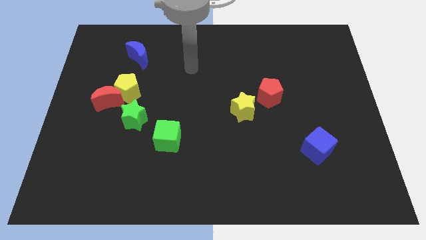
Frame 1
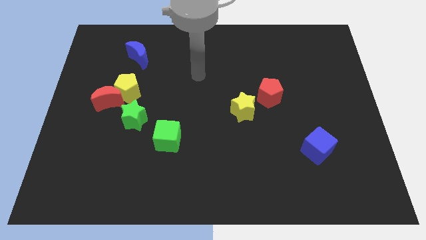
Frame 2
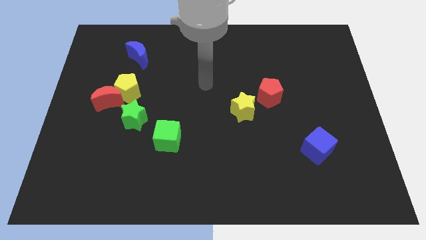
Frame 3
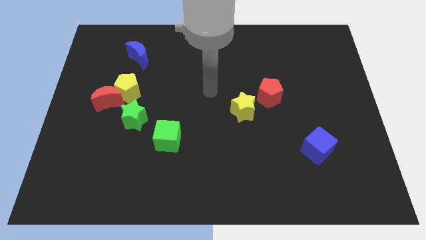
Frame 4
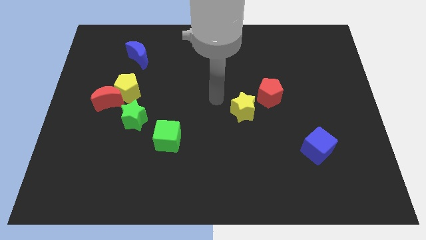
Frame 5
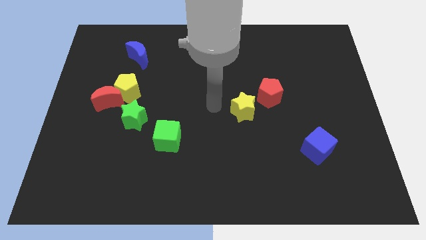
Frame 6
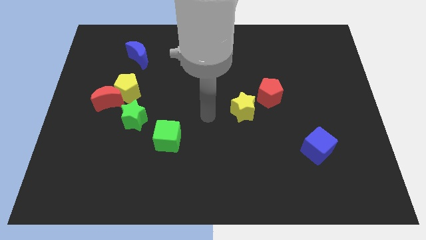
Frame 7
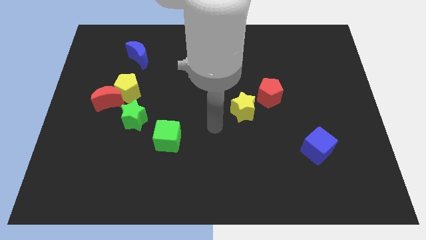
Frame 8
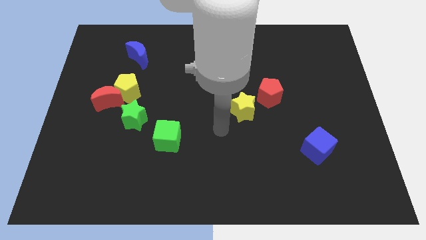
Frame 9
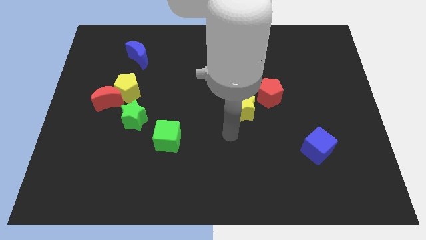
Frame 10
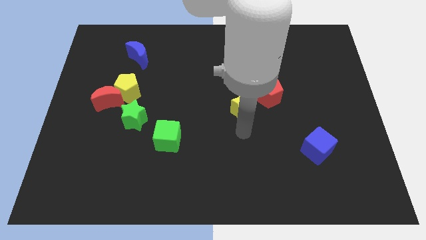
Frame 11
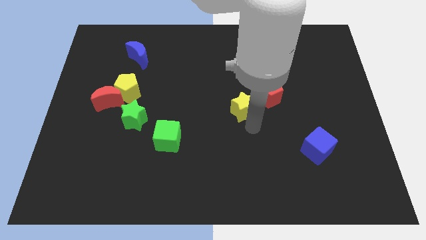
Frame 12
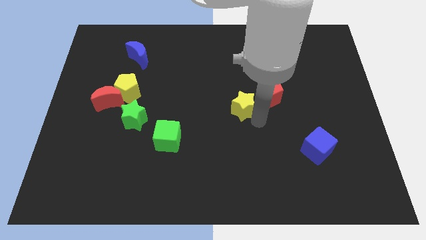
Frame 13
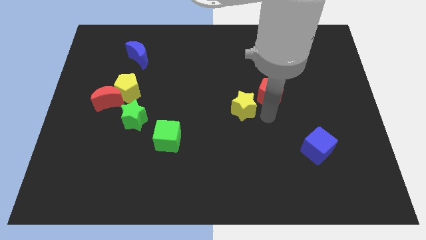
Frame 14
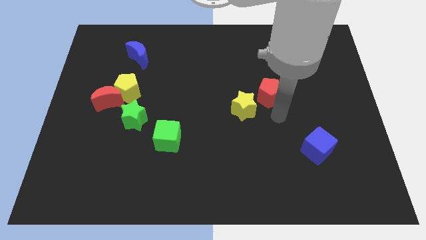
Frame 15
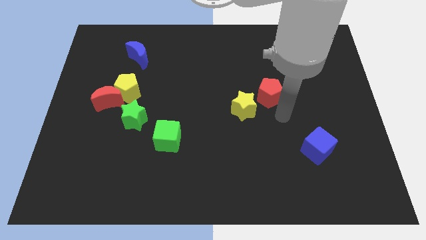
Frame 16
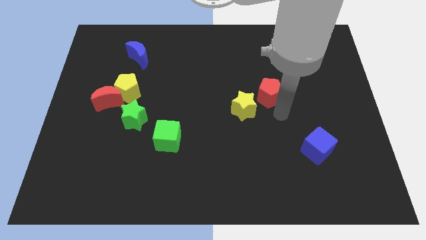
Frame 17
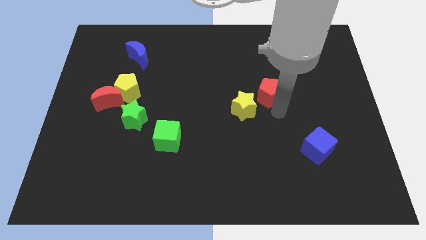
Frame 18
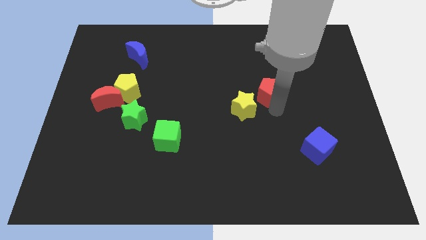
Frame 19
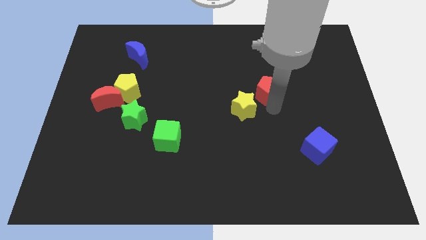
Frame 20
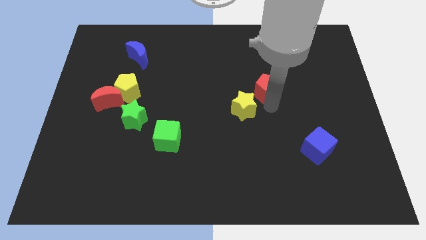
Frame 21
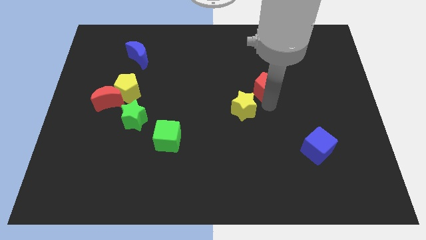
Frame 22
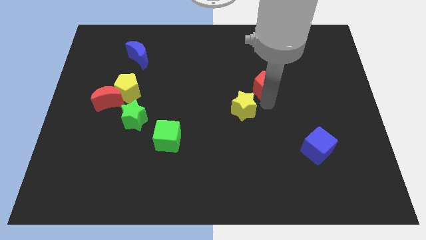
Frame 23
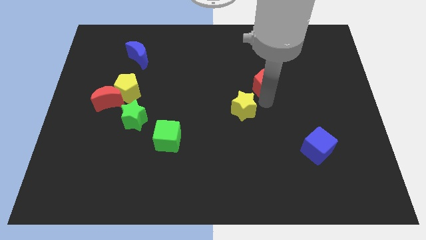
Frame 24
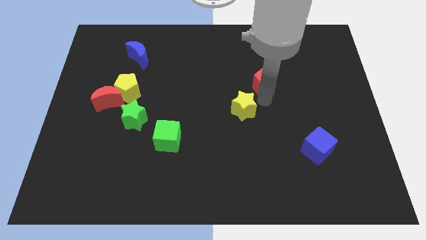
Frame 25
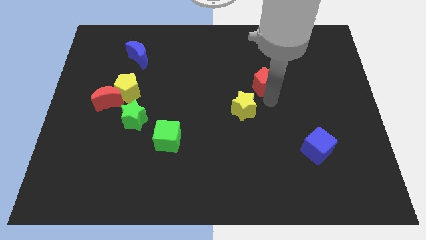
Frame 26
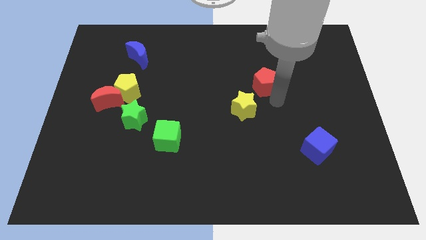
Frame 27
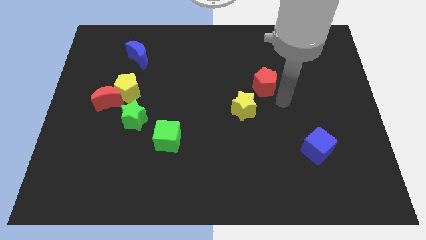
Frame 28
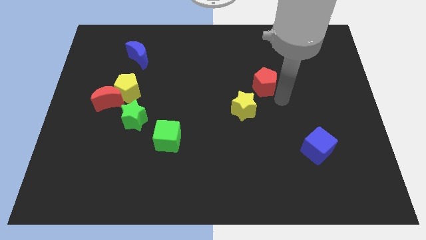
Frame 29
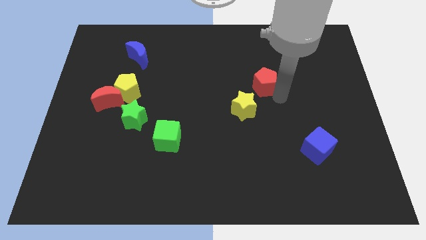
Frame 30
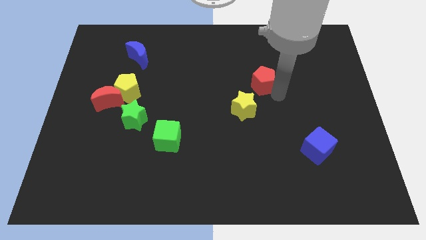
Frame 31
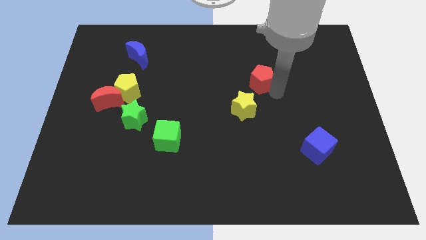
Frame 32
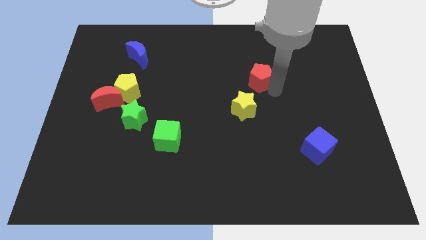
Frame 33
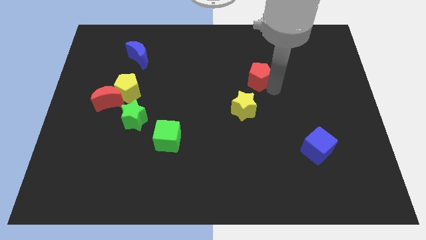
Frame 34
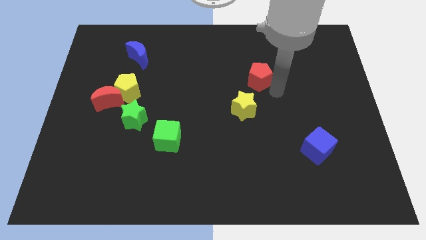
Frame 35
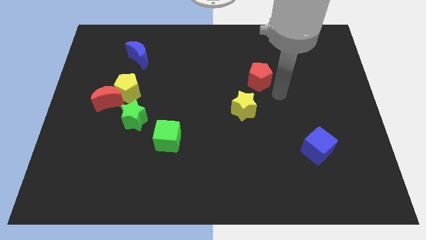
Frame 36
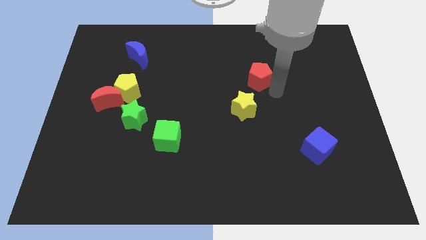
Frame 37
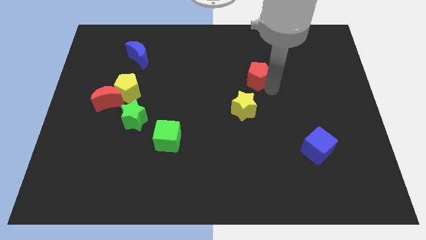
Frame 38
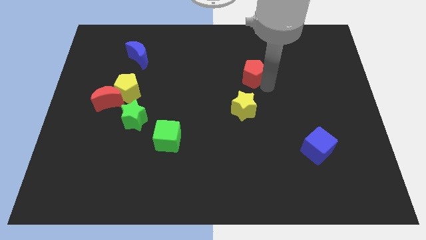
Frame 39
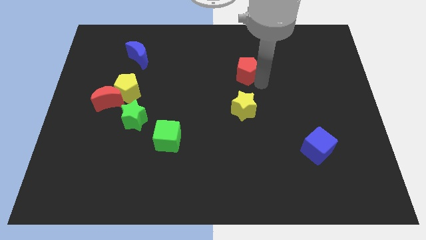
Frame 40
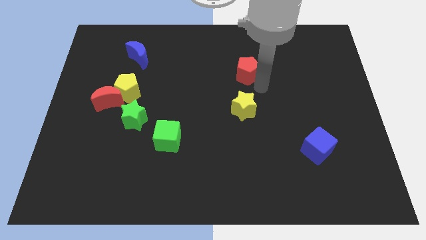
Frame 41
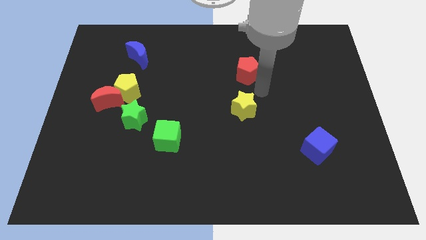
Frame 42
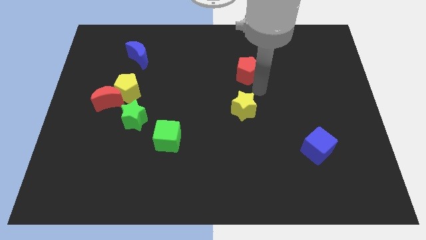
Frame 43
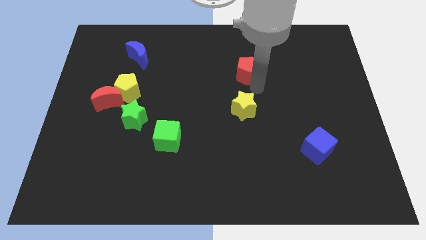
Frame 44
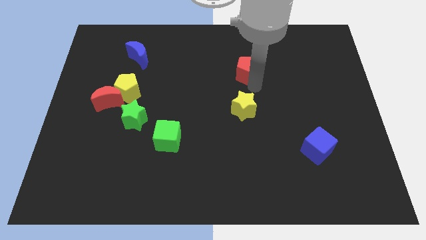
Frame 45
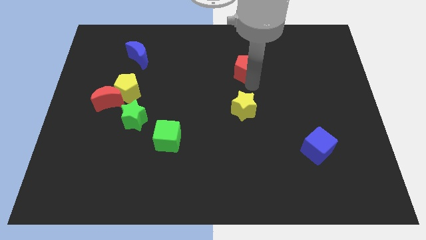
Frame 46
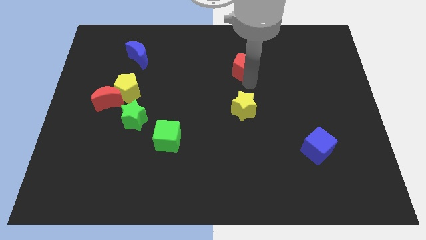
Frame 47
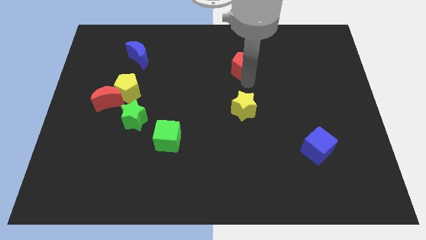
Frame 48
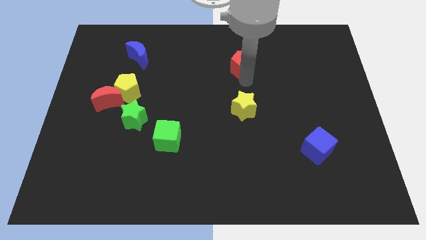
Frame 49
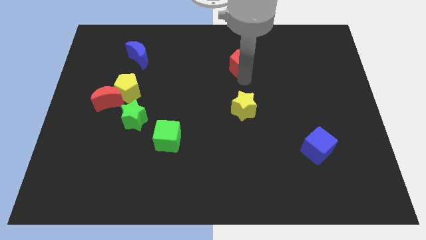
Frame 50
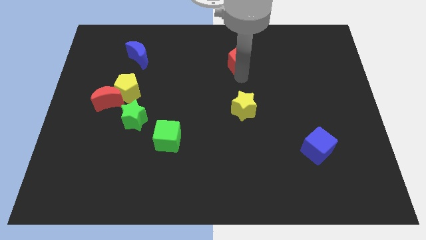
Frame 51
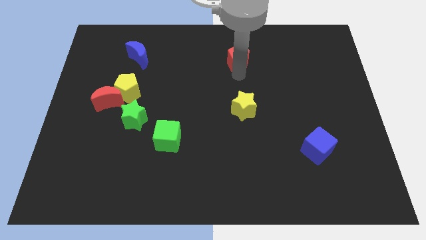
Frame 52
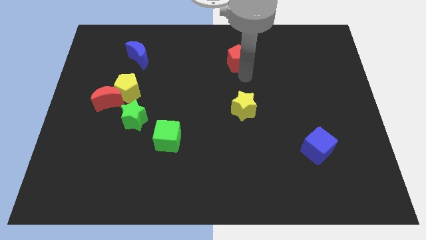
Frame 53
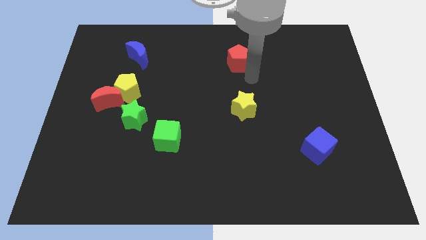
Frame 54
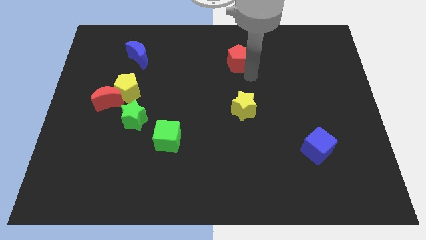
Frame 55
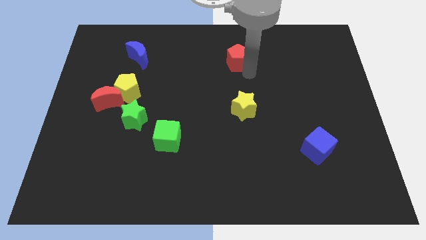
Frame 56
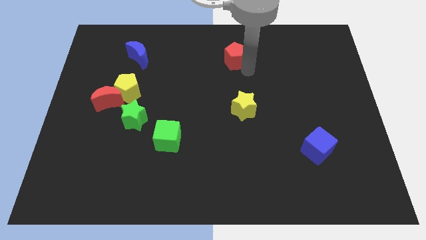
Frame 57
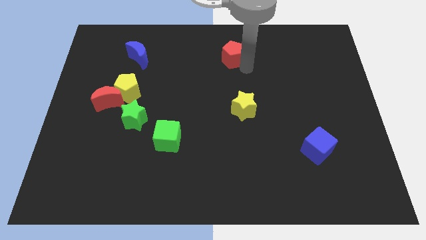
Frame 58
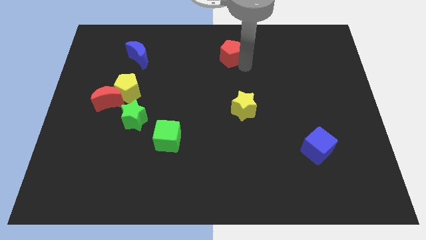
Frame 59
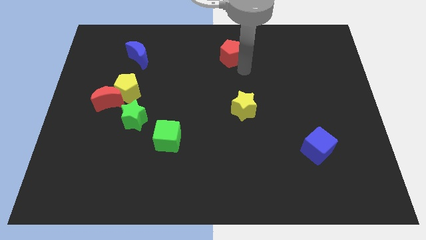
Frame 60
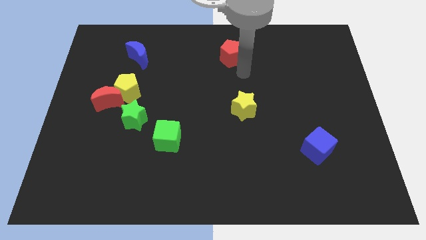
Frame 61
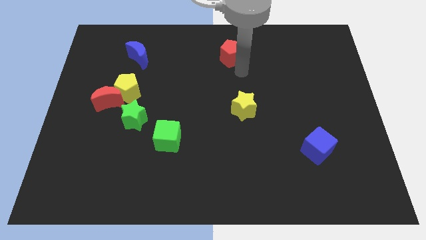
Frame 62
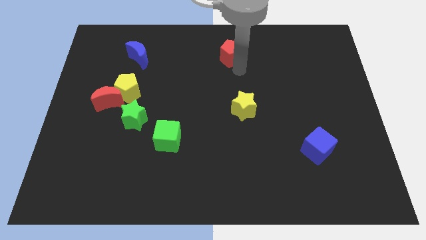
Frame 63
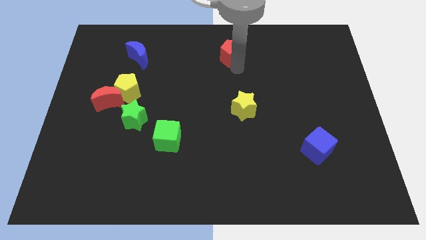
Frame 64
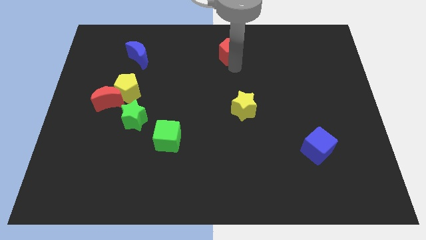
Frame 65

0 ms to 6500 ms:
put the red pentagon to the top side
